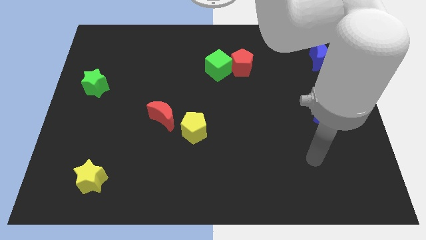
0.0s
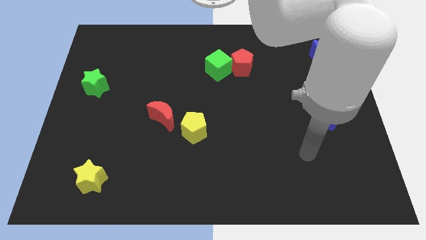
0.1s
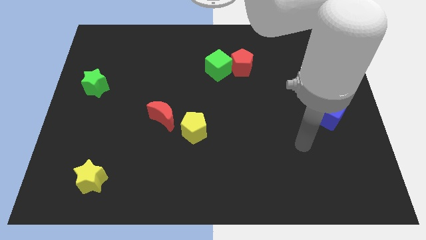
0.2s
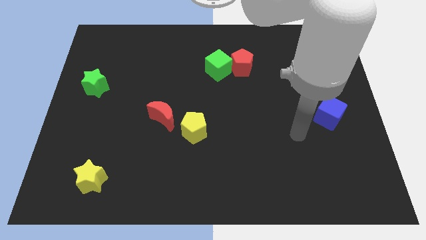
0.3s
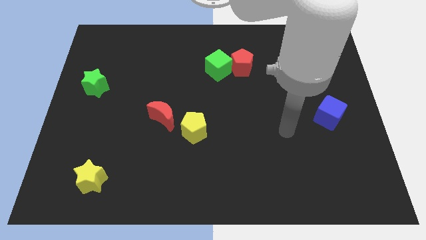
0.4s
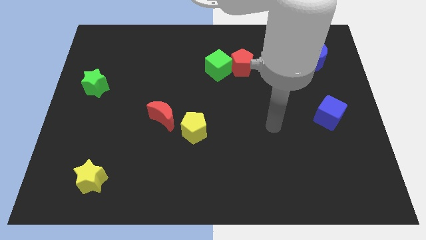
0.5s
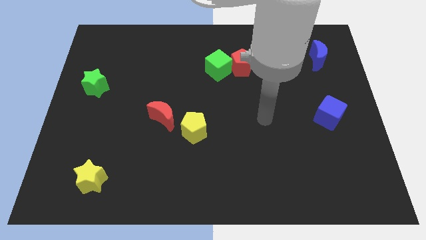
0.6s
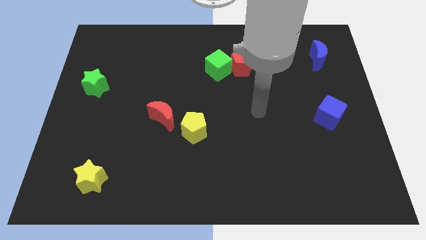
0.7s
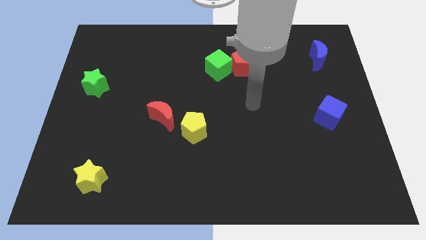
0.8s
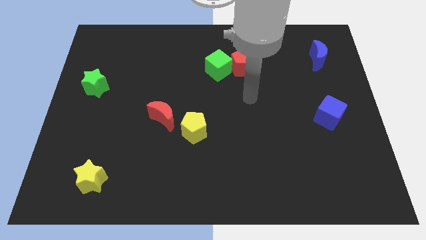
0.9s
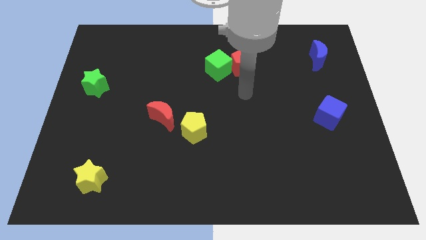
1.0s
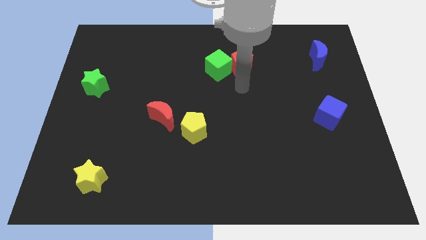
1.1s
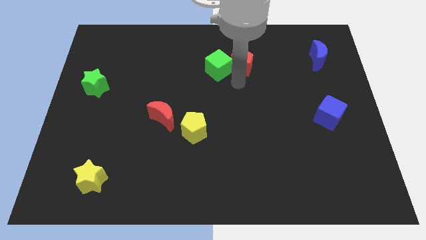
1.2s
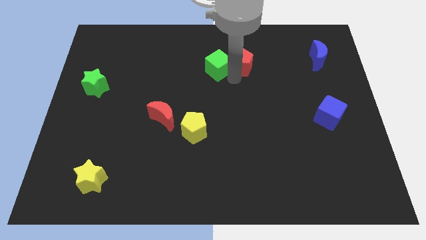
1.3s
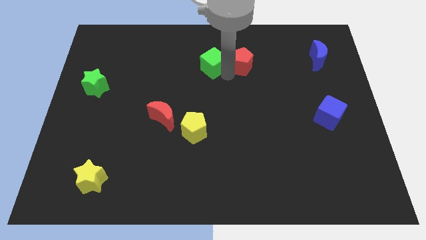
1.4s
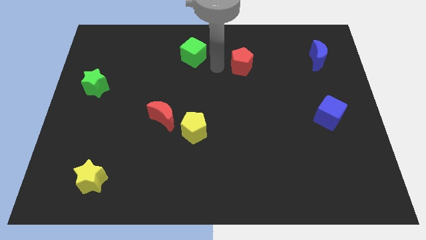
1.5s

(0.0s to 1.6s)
separate the red pentagon from the green cube

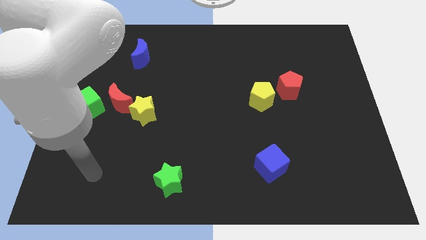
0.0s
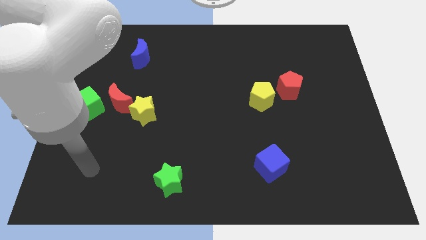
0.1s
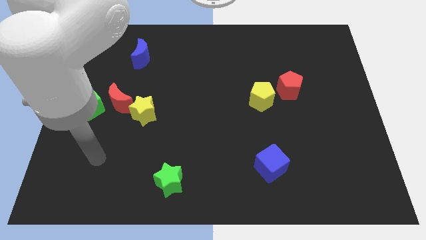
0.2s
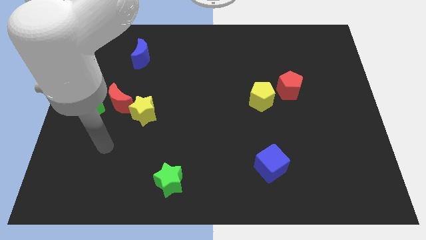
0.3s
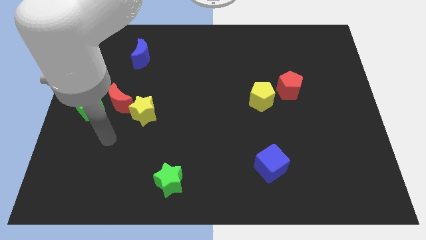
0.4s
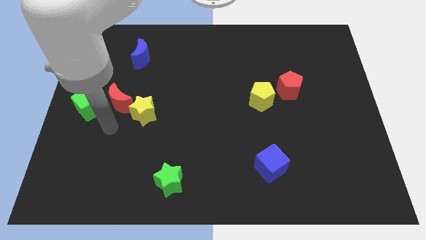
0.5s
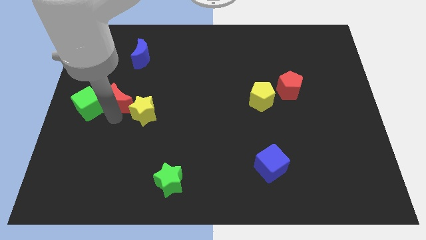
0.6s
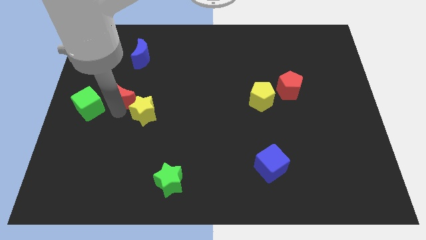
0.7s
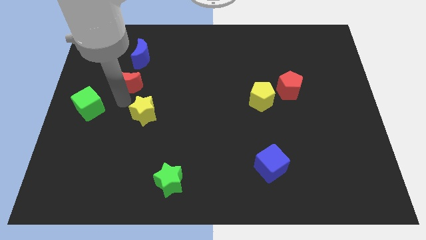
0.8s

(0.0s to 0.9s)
pull the yellow star apart from the red moon

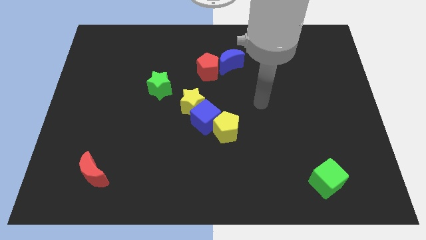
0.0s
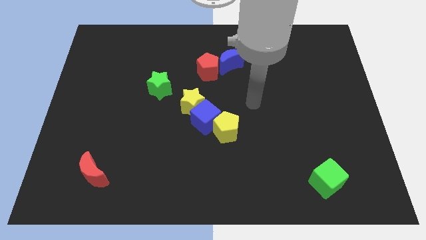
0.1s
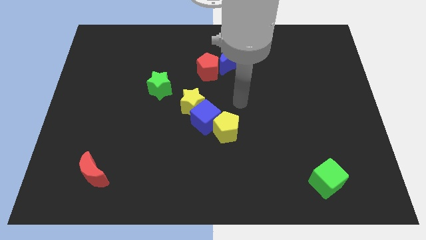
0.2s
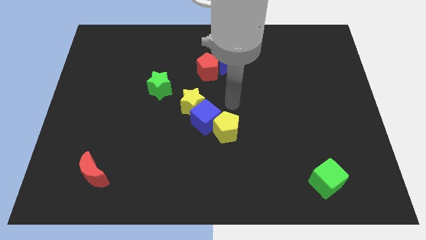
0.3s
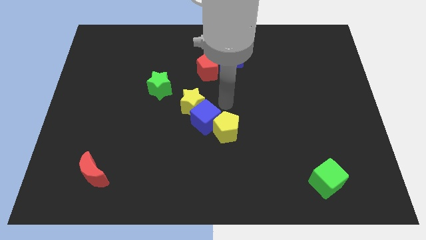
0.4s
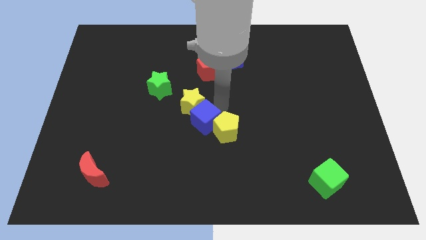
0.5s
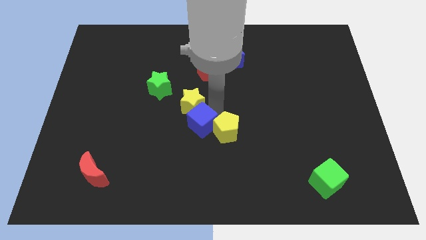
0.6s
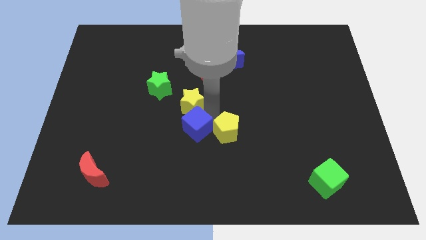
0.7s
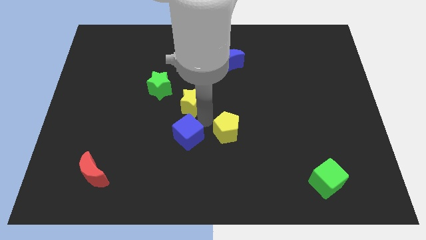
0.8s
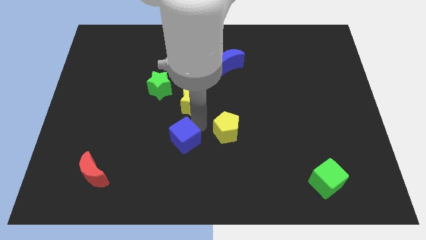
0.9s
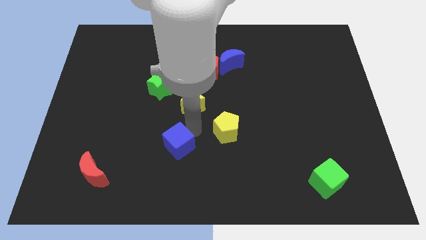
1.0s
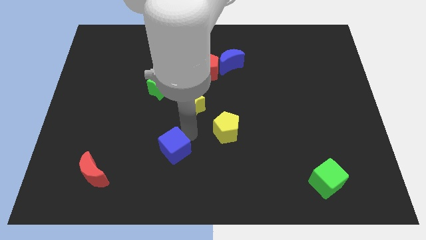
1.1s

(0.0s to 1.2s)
separate the blue cube from the yellow star and yellow pentagon

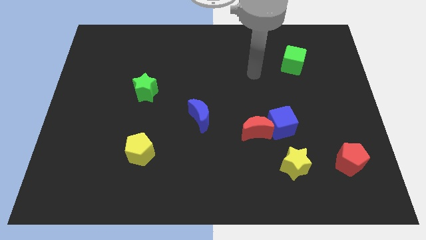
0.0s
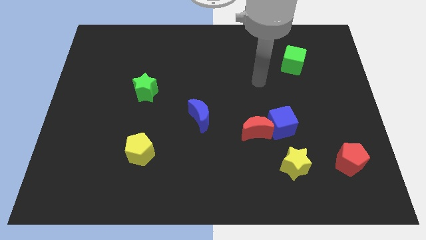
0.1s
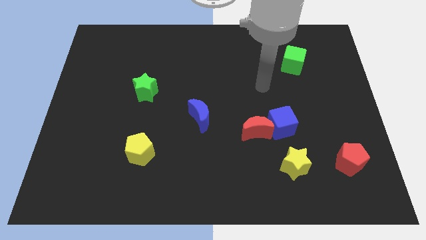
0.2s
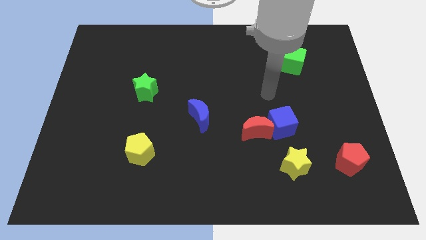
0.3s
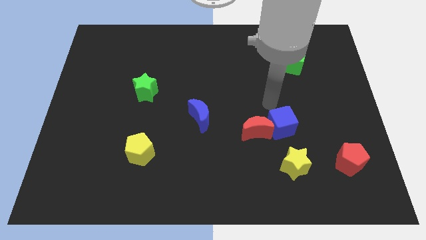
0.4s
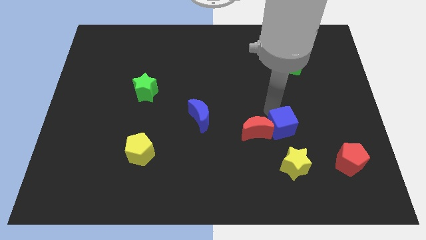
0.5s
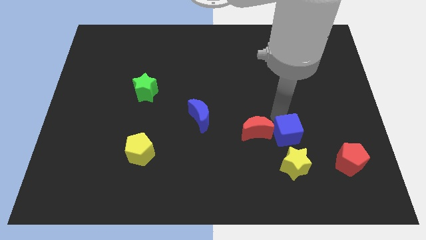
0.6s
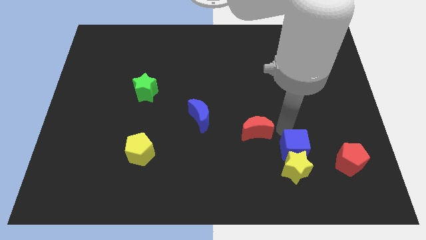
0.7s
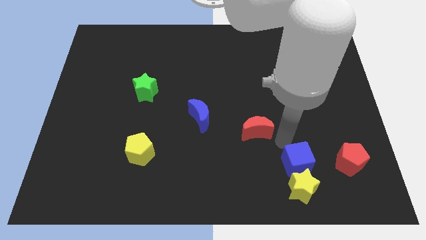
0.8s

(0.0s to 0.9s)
separate the red moon from the blue cube

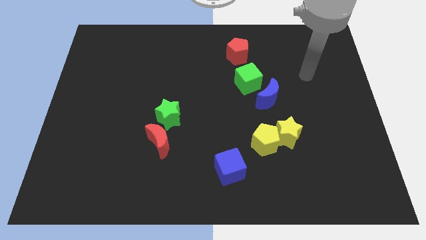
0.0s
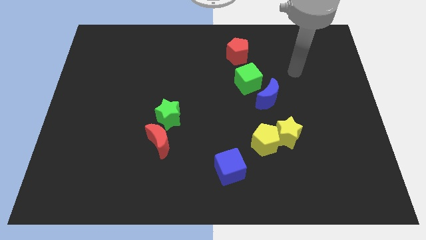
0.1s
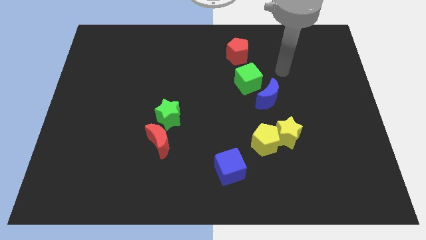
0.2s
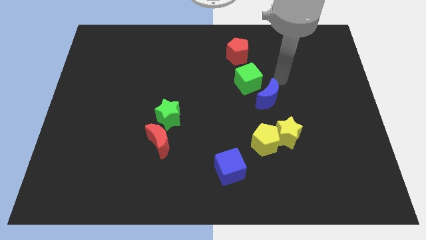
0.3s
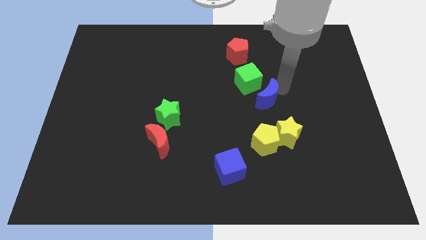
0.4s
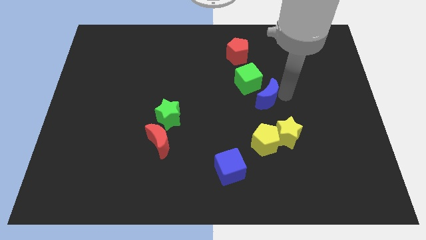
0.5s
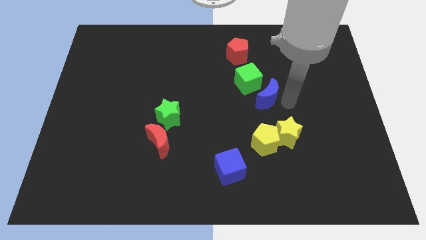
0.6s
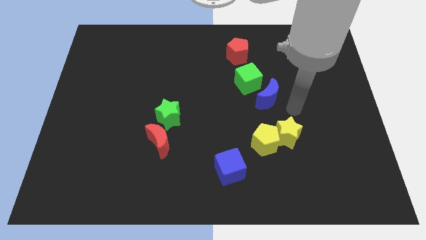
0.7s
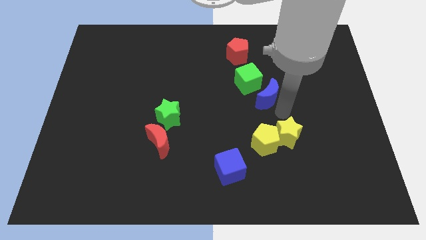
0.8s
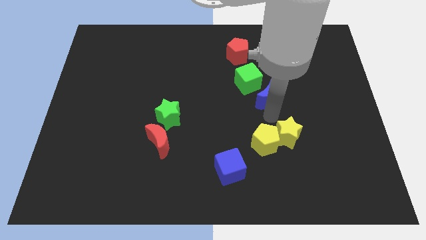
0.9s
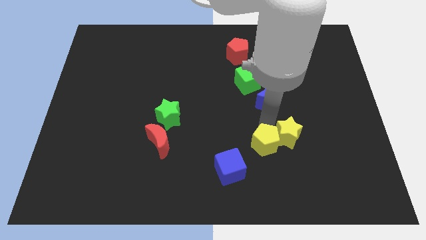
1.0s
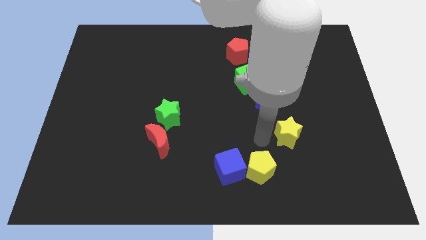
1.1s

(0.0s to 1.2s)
separate the yellow star from the yellow pentagon

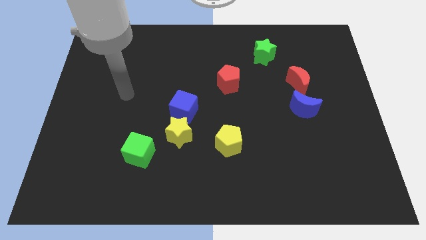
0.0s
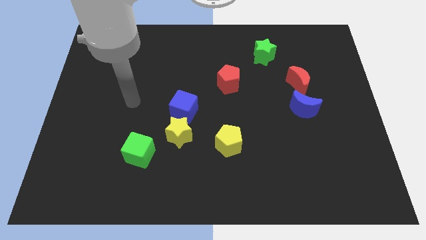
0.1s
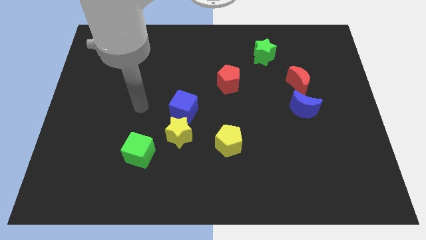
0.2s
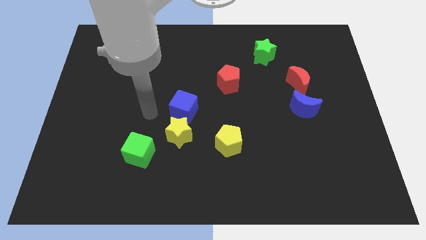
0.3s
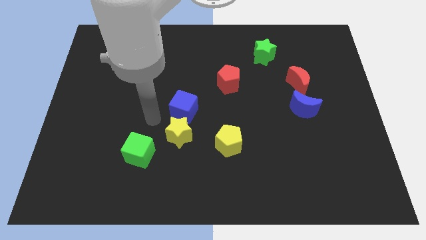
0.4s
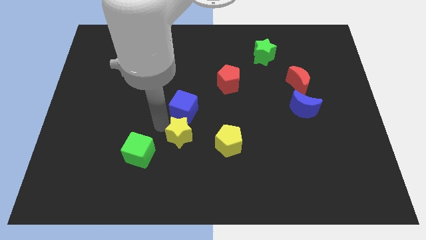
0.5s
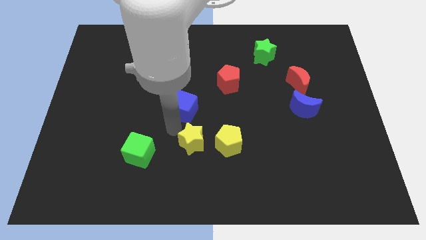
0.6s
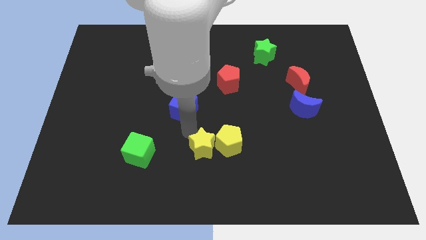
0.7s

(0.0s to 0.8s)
move the blue cube away from the yellow star

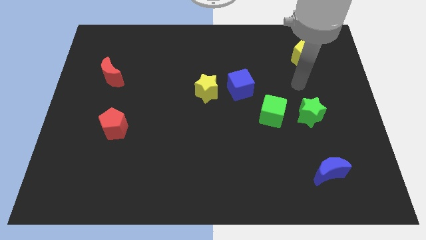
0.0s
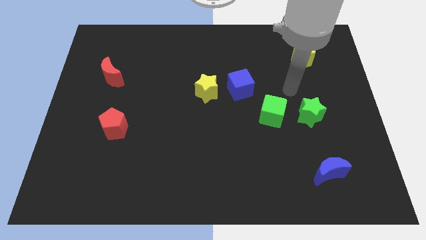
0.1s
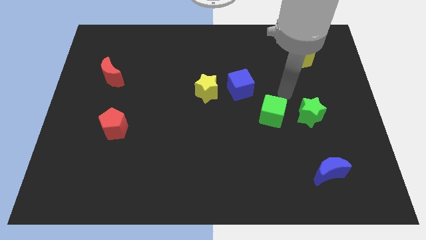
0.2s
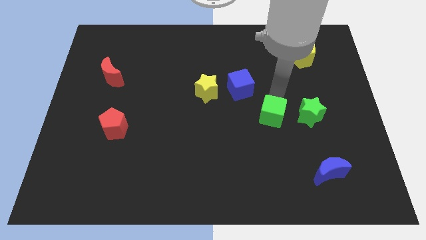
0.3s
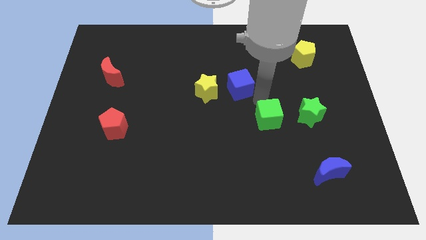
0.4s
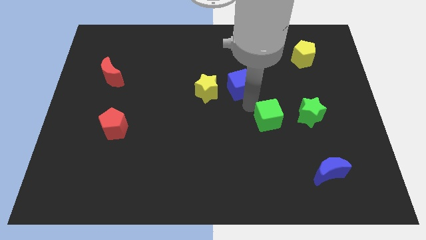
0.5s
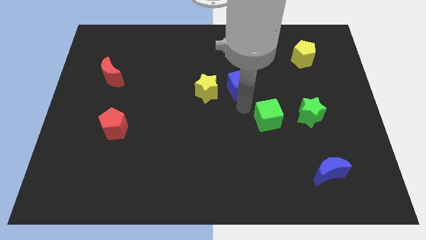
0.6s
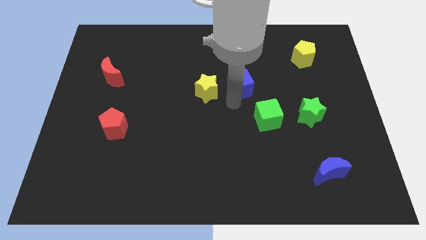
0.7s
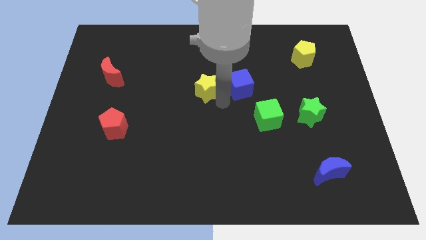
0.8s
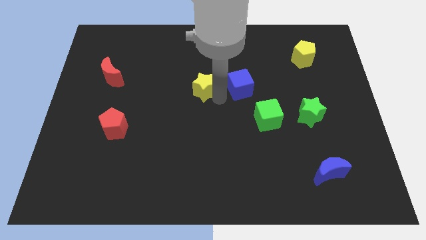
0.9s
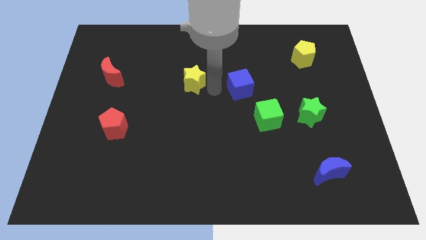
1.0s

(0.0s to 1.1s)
separate the blue cube from the yellow star

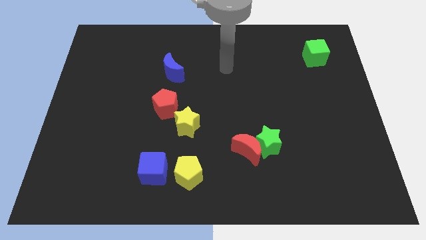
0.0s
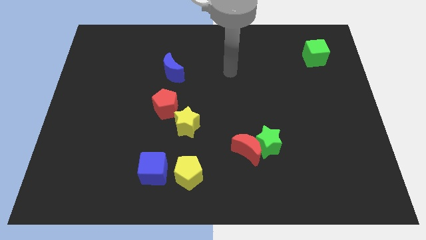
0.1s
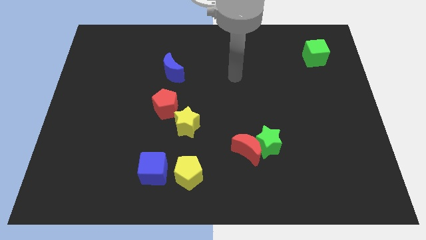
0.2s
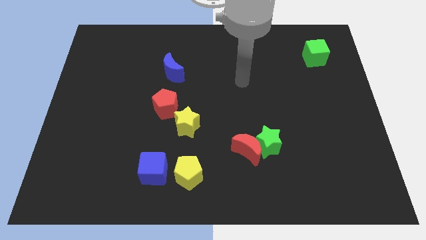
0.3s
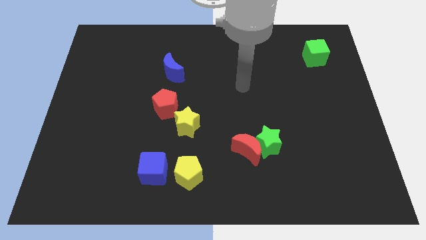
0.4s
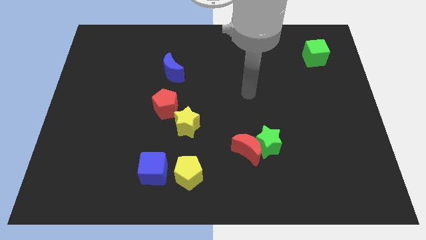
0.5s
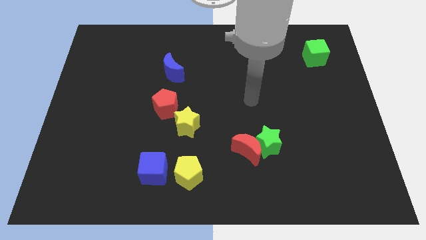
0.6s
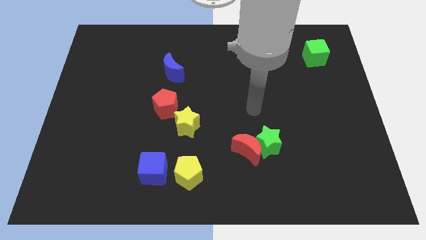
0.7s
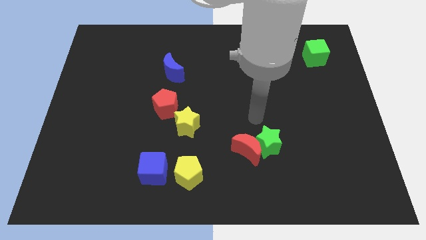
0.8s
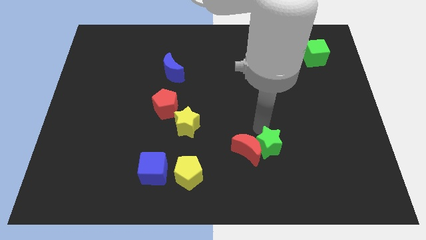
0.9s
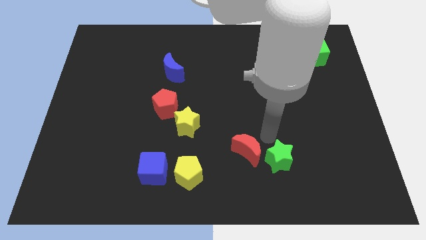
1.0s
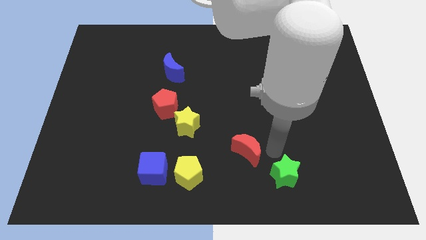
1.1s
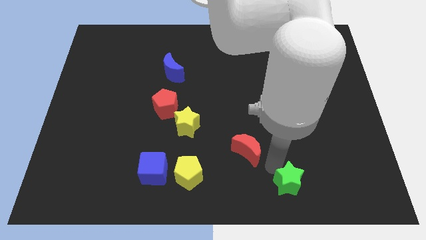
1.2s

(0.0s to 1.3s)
separate the red moon from the green star

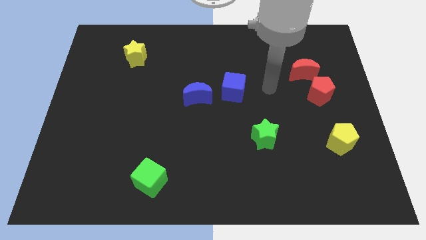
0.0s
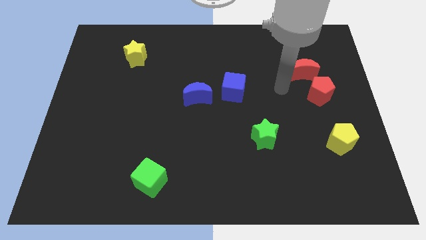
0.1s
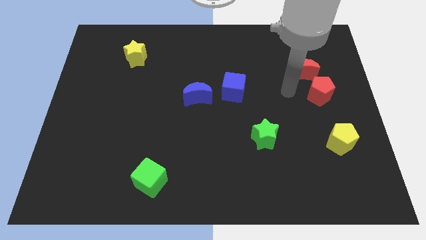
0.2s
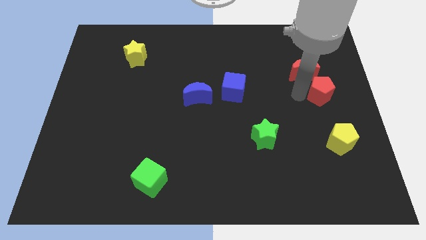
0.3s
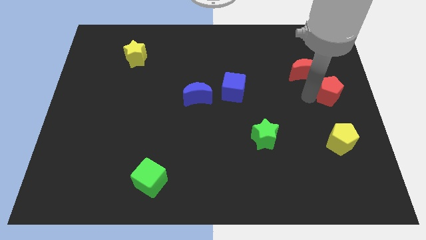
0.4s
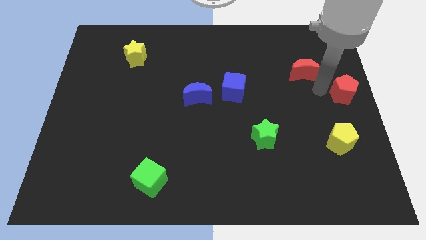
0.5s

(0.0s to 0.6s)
pull the red moon apart from the red pentagon
